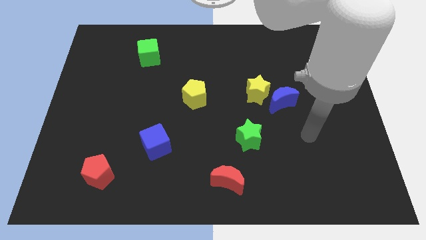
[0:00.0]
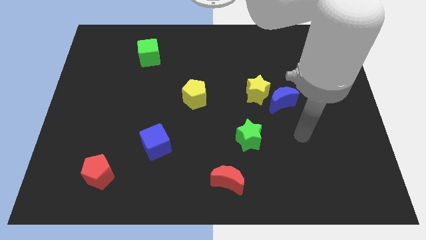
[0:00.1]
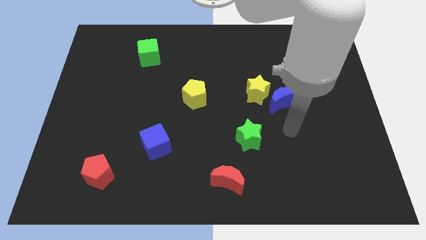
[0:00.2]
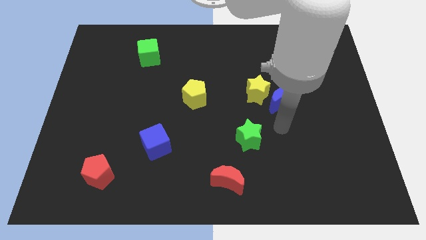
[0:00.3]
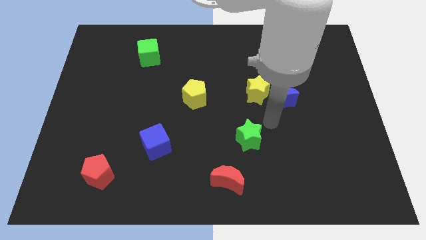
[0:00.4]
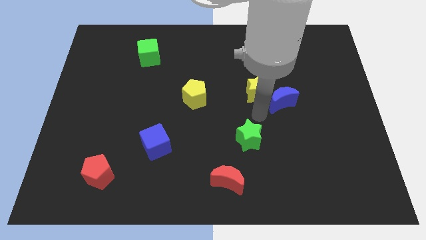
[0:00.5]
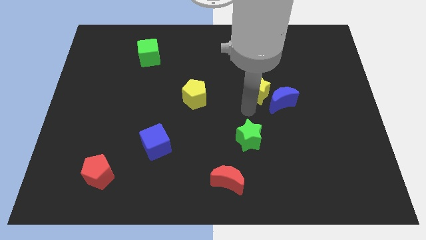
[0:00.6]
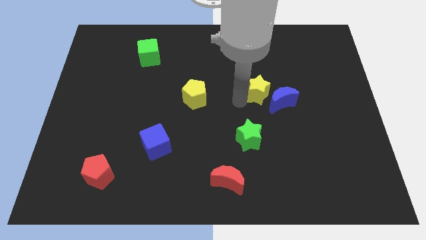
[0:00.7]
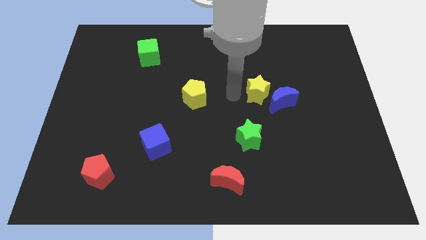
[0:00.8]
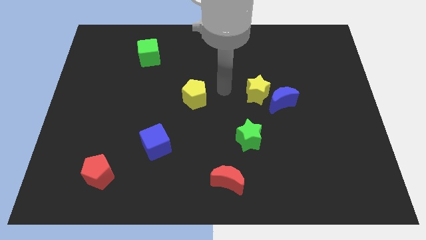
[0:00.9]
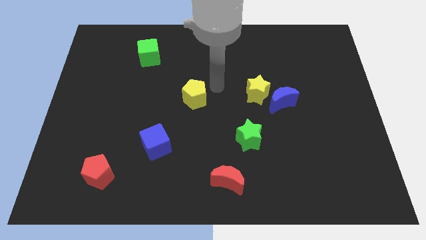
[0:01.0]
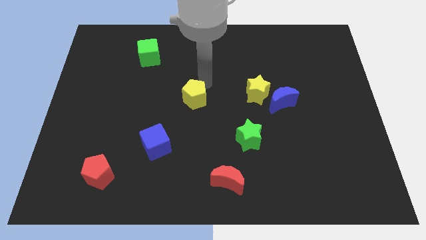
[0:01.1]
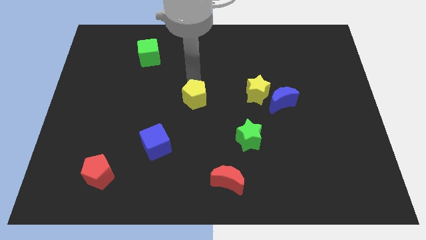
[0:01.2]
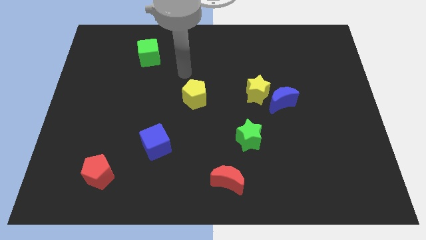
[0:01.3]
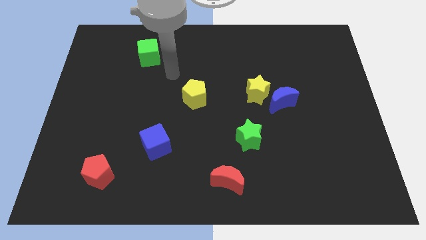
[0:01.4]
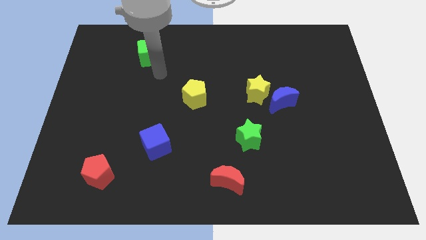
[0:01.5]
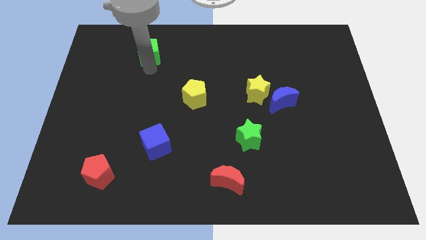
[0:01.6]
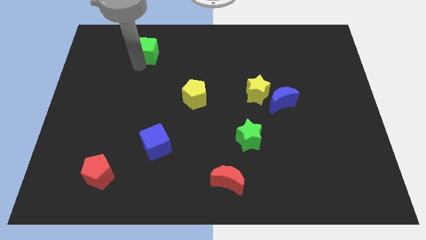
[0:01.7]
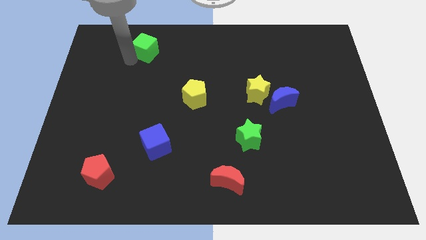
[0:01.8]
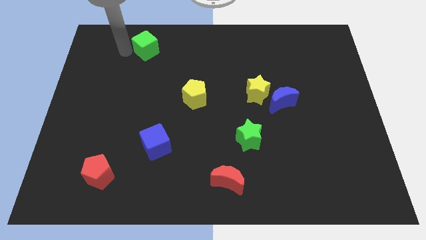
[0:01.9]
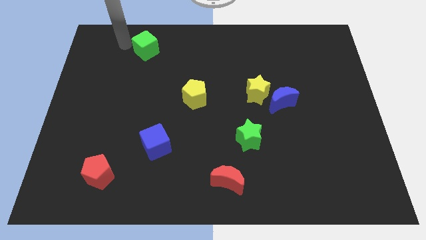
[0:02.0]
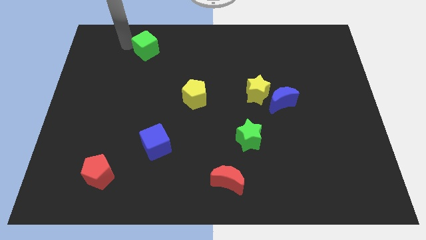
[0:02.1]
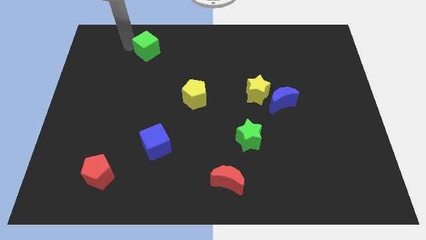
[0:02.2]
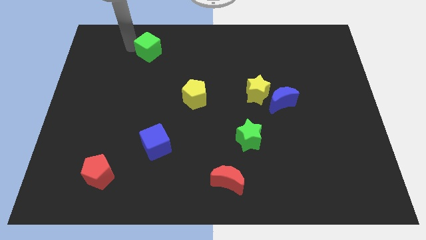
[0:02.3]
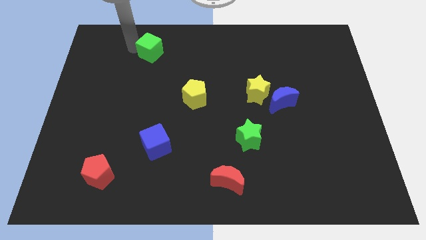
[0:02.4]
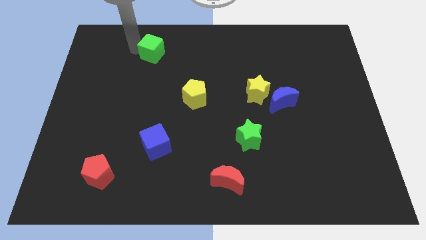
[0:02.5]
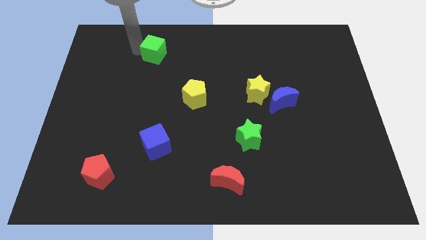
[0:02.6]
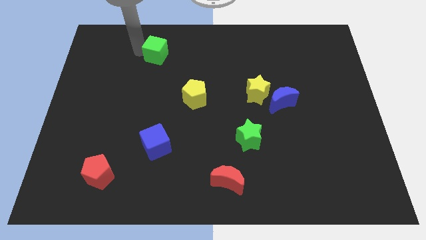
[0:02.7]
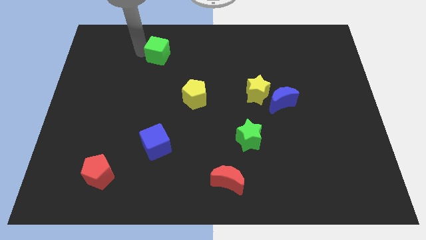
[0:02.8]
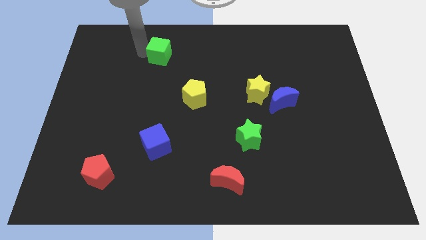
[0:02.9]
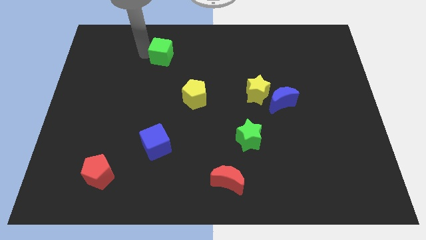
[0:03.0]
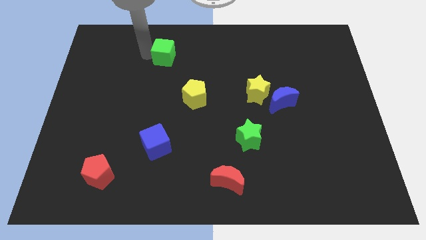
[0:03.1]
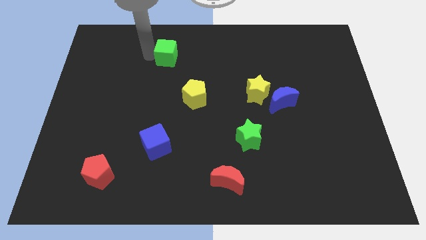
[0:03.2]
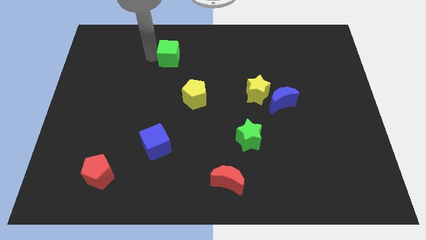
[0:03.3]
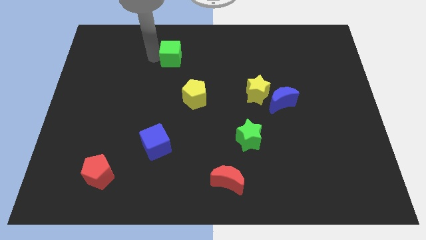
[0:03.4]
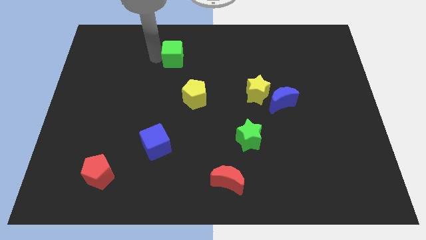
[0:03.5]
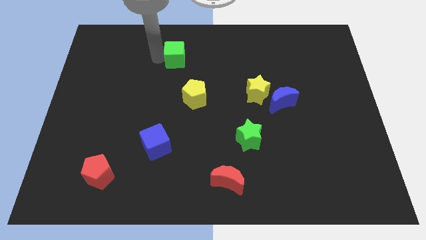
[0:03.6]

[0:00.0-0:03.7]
push the green cube somewhat to the right

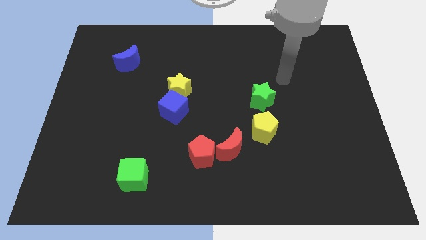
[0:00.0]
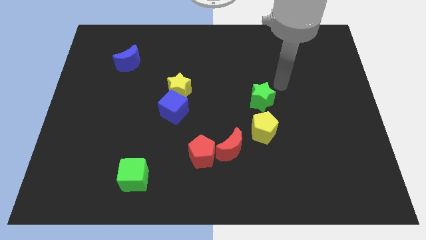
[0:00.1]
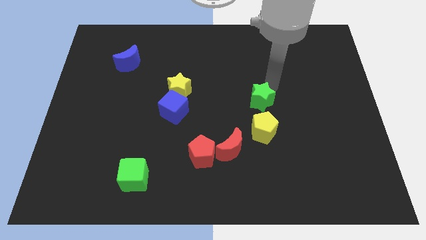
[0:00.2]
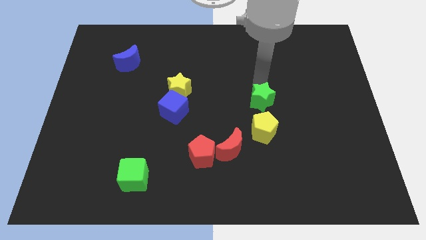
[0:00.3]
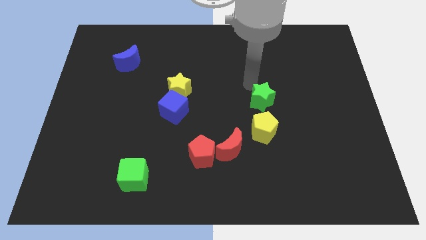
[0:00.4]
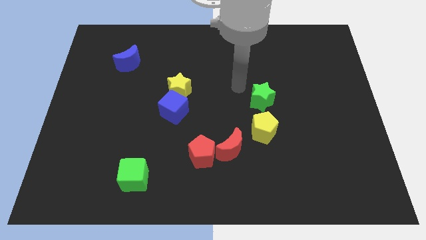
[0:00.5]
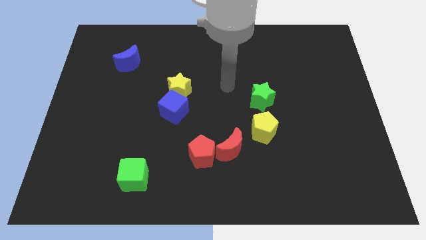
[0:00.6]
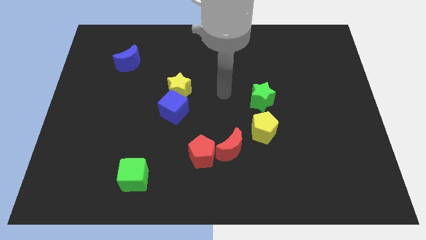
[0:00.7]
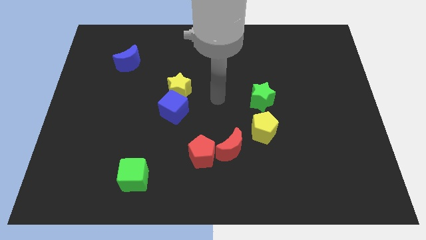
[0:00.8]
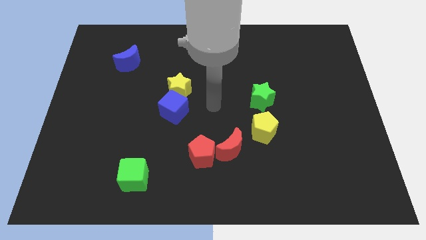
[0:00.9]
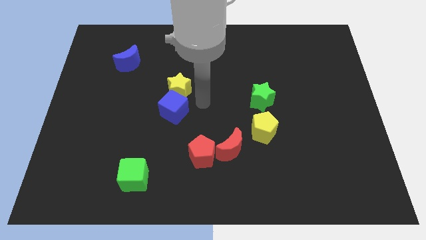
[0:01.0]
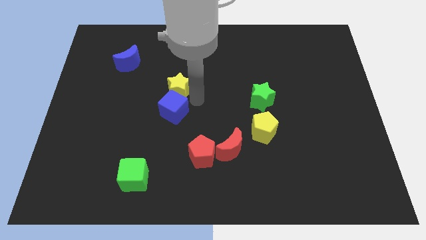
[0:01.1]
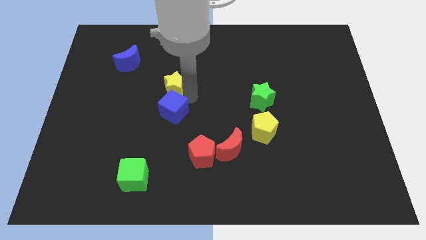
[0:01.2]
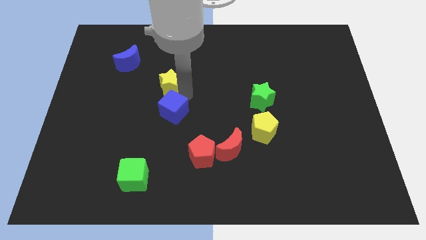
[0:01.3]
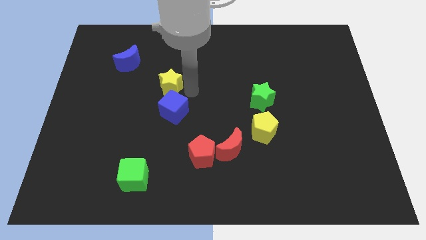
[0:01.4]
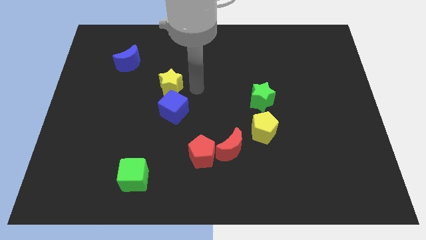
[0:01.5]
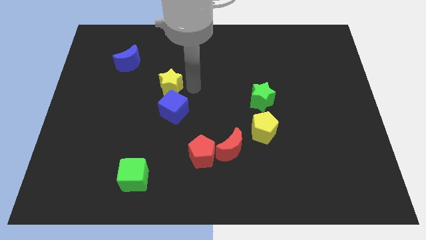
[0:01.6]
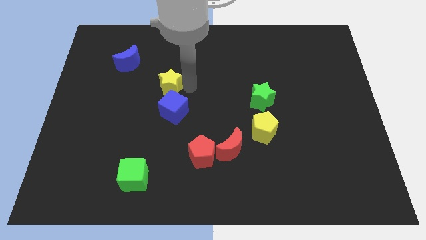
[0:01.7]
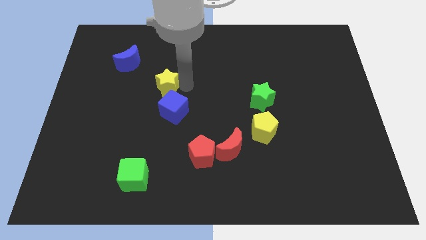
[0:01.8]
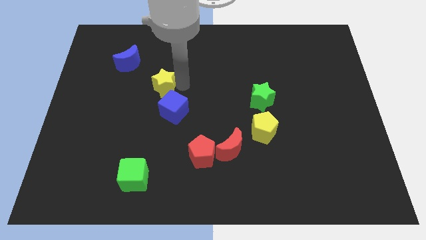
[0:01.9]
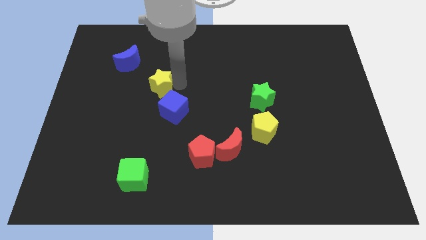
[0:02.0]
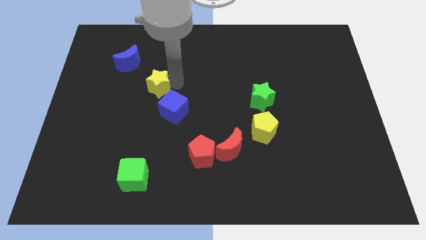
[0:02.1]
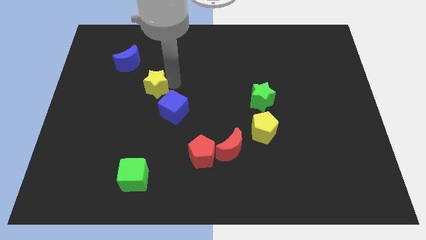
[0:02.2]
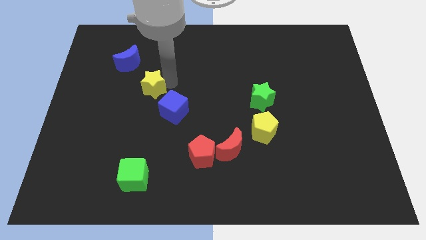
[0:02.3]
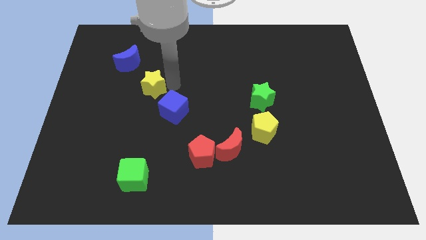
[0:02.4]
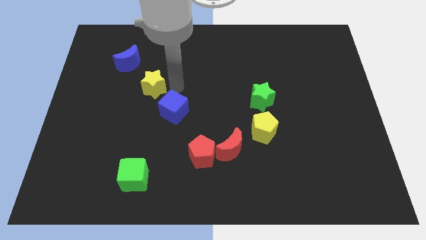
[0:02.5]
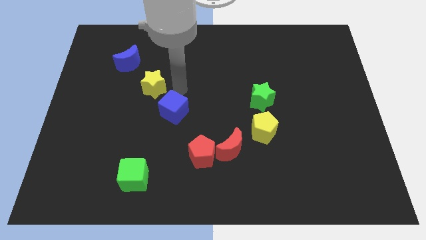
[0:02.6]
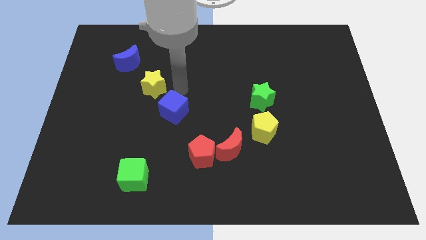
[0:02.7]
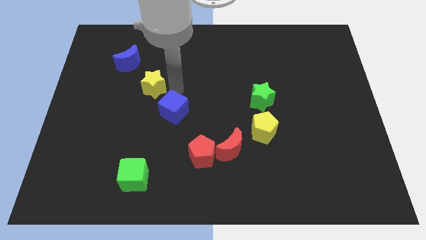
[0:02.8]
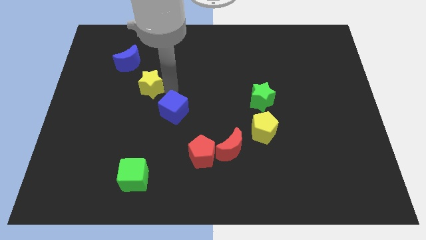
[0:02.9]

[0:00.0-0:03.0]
slide the yellow star left a bit

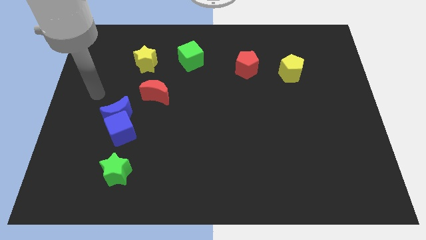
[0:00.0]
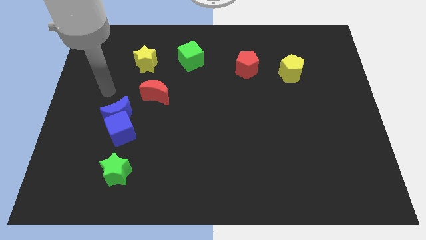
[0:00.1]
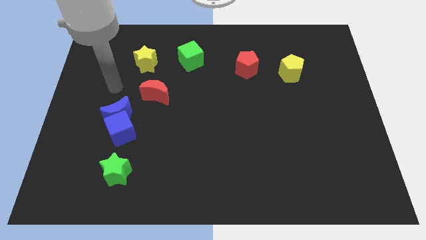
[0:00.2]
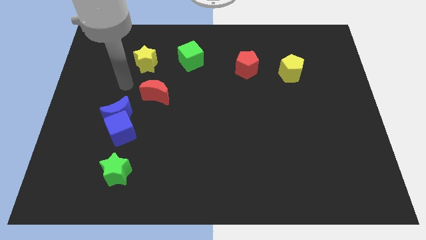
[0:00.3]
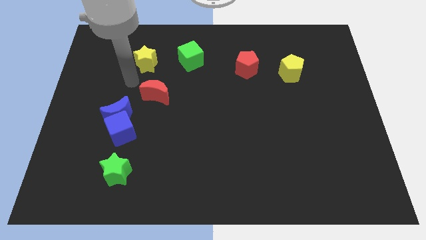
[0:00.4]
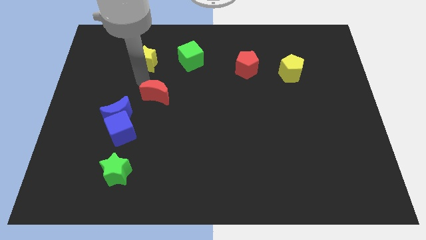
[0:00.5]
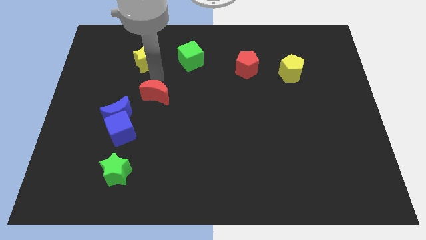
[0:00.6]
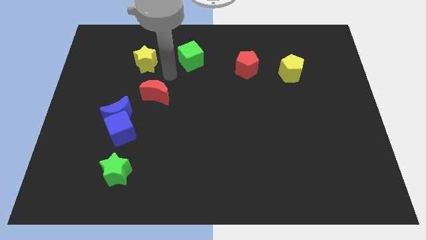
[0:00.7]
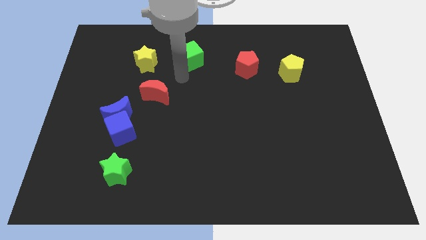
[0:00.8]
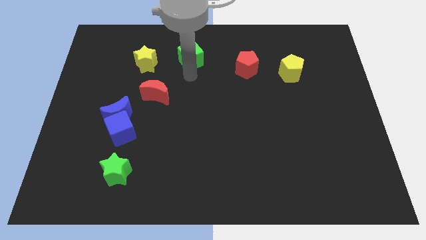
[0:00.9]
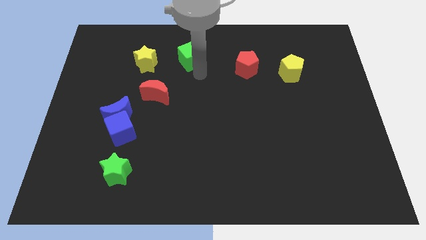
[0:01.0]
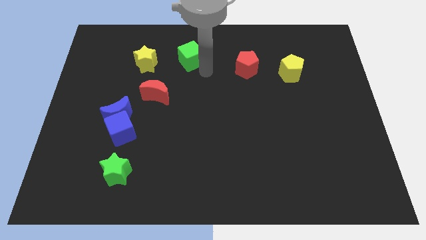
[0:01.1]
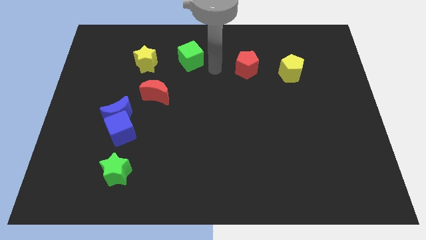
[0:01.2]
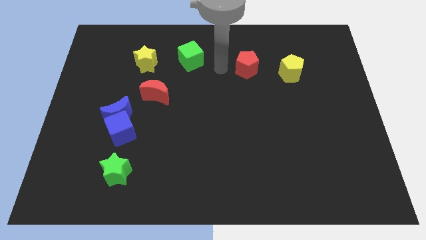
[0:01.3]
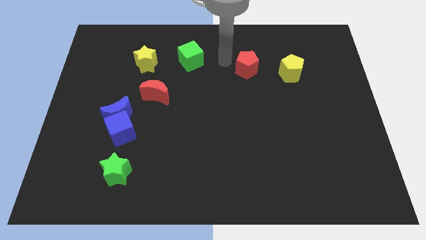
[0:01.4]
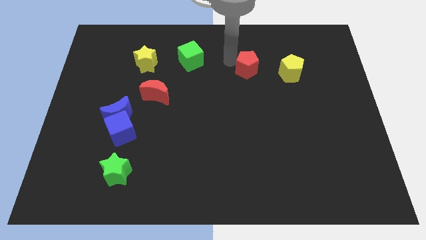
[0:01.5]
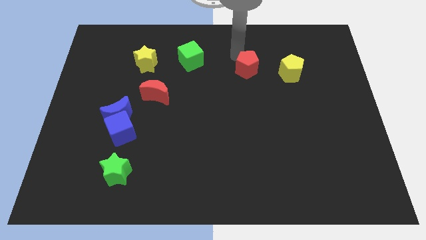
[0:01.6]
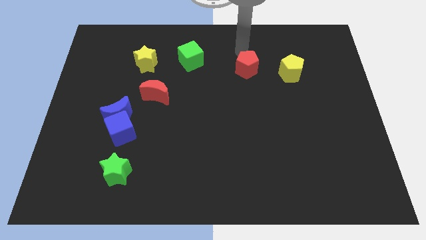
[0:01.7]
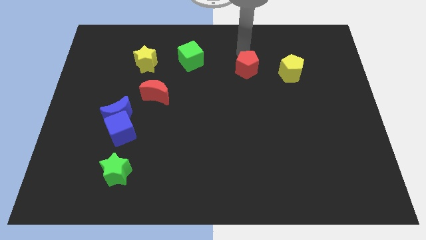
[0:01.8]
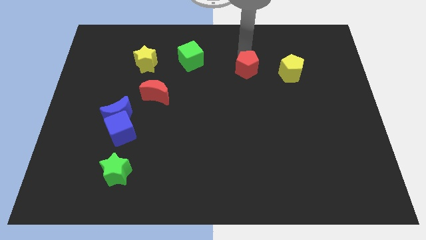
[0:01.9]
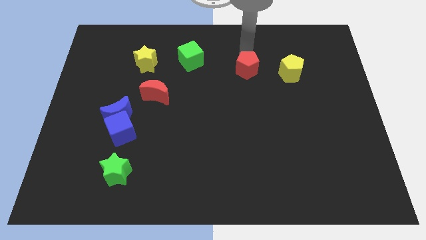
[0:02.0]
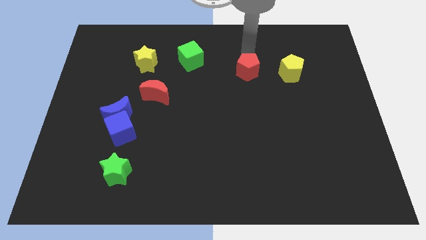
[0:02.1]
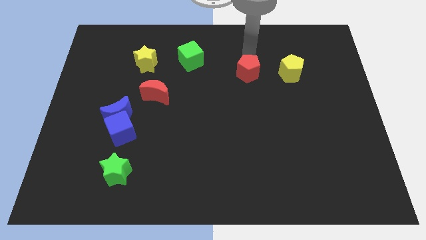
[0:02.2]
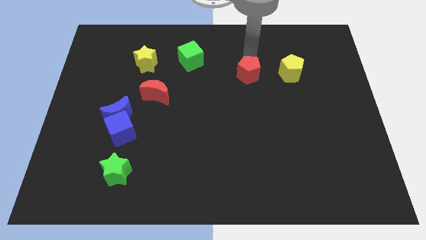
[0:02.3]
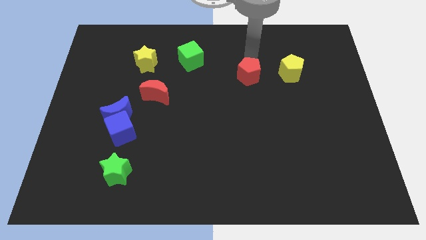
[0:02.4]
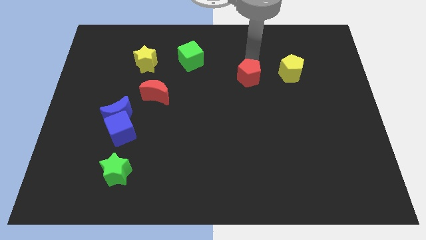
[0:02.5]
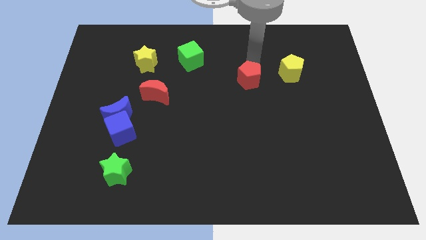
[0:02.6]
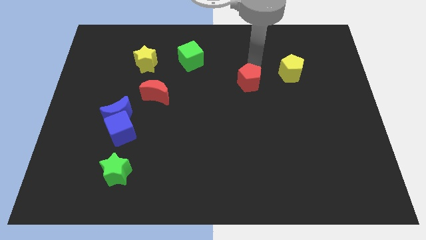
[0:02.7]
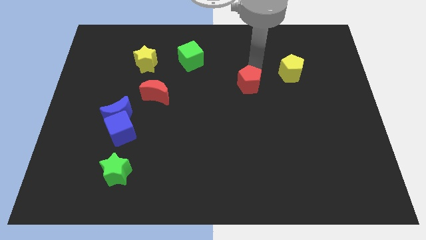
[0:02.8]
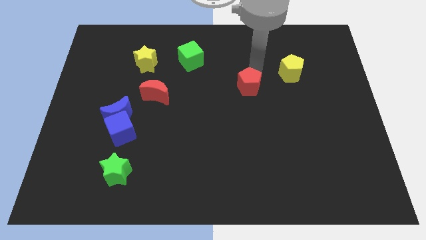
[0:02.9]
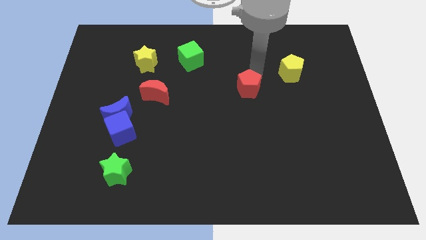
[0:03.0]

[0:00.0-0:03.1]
push the red pentagon somewhat down
